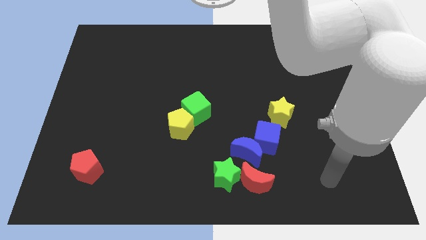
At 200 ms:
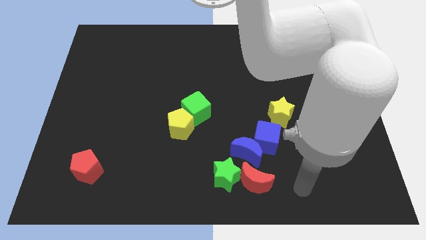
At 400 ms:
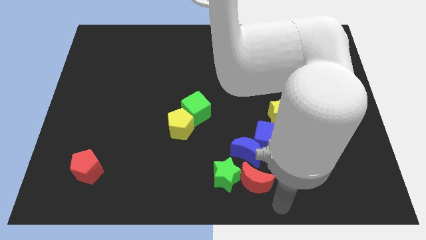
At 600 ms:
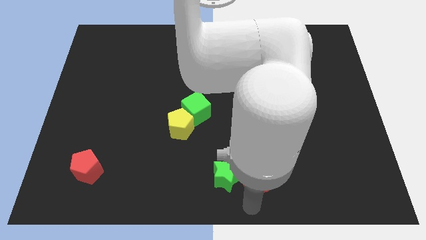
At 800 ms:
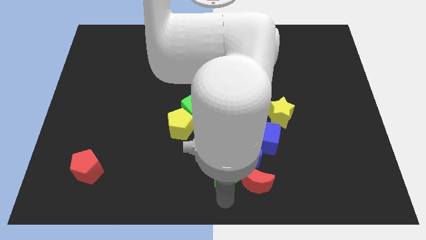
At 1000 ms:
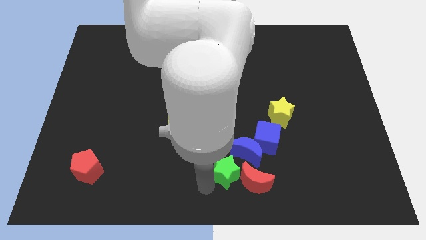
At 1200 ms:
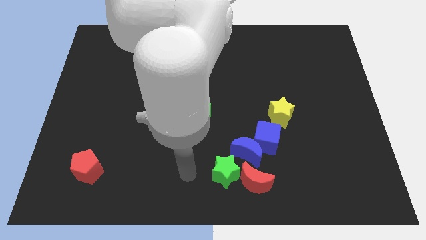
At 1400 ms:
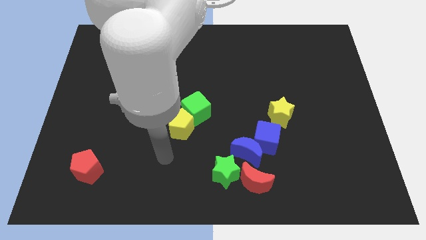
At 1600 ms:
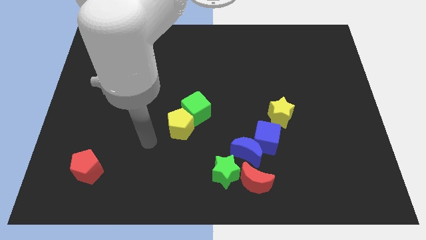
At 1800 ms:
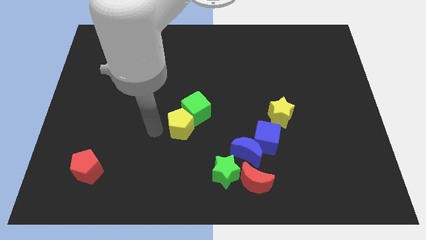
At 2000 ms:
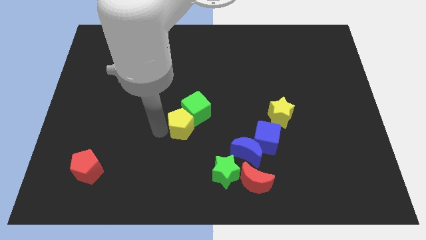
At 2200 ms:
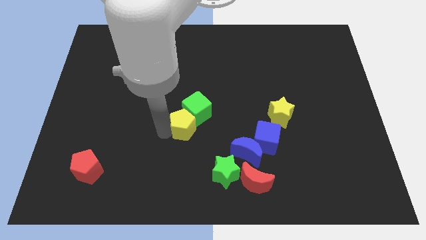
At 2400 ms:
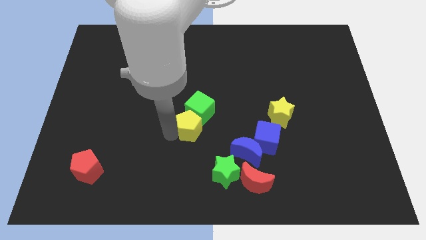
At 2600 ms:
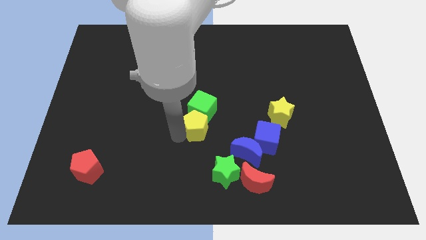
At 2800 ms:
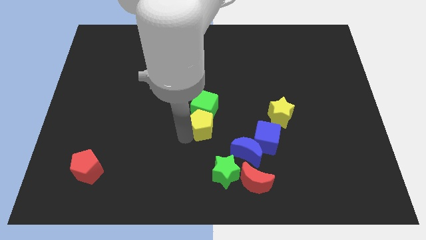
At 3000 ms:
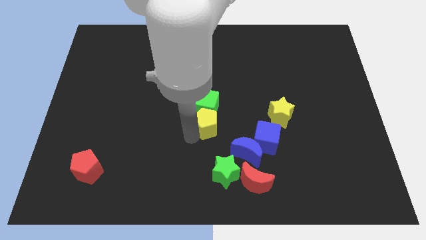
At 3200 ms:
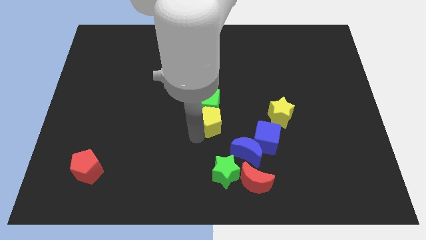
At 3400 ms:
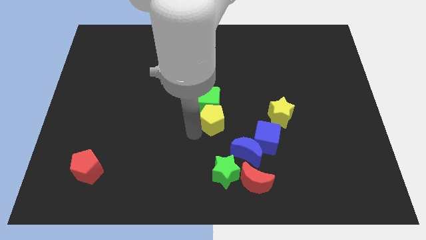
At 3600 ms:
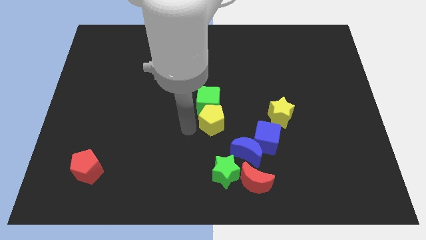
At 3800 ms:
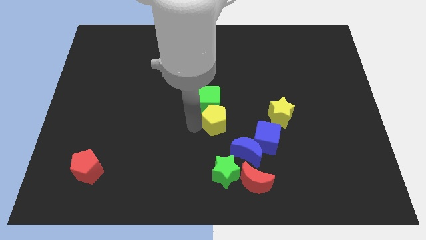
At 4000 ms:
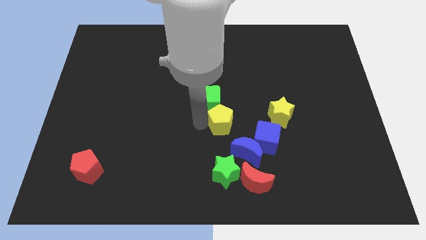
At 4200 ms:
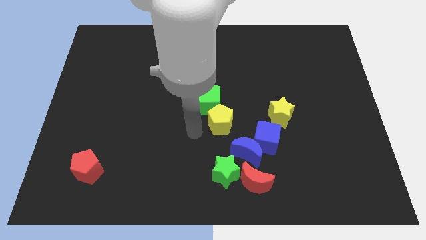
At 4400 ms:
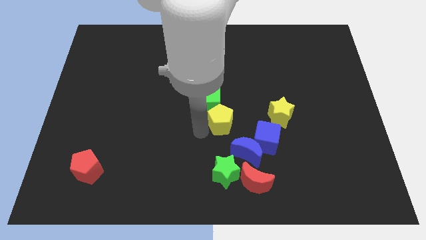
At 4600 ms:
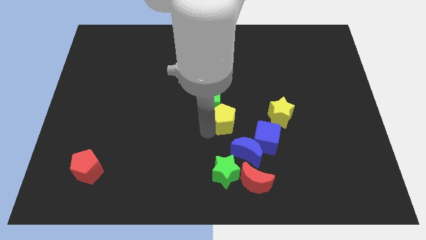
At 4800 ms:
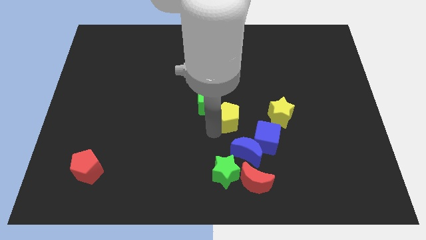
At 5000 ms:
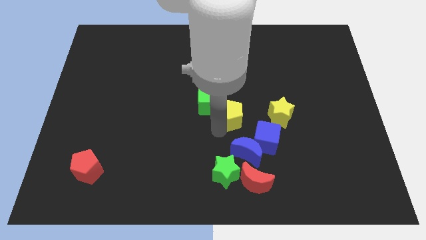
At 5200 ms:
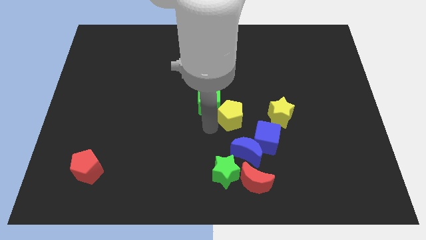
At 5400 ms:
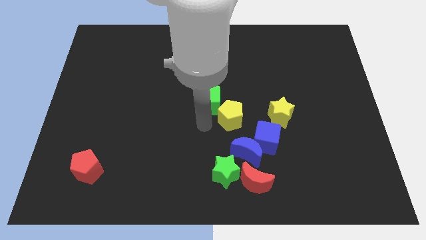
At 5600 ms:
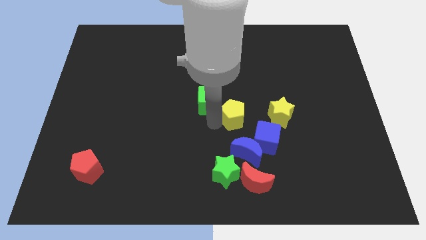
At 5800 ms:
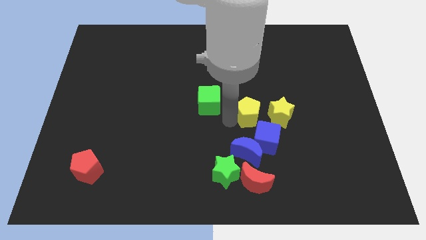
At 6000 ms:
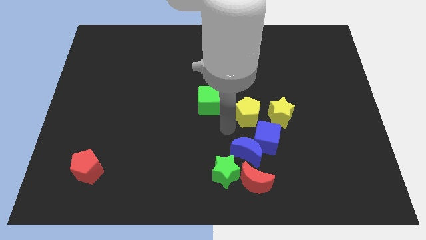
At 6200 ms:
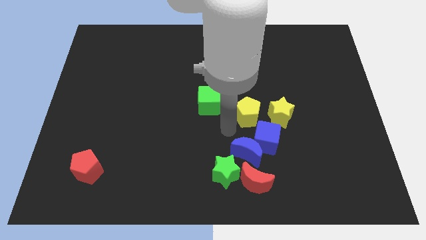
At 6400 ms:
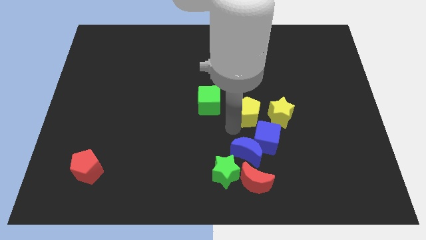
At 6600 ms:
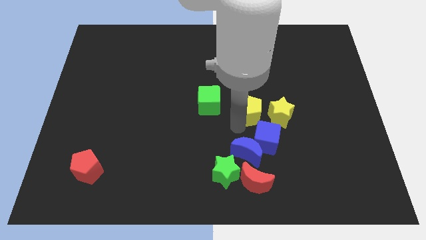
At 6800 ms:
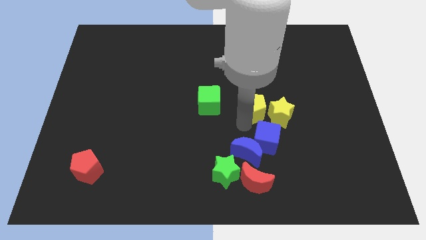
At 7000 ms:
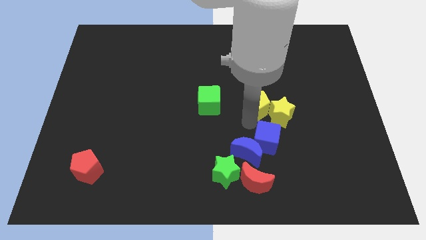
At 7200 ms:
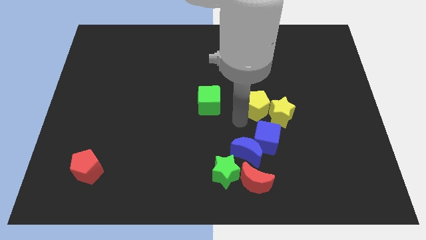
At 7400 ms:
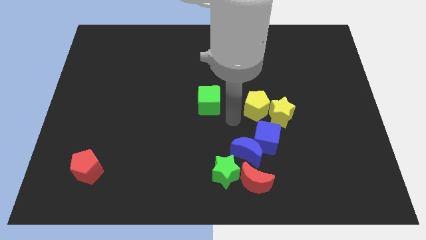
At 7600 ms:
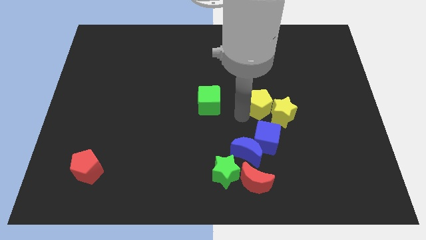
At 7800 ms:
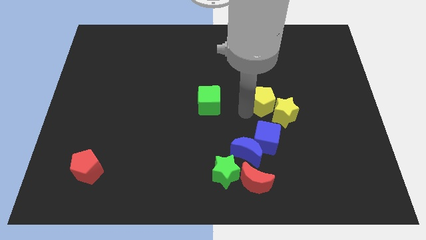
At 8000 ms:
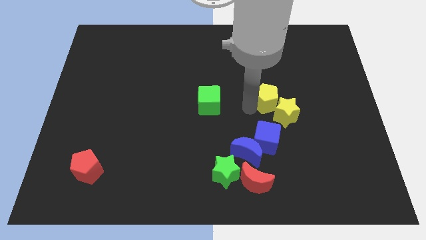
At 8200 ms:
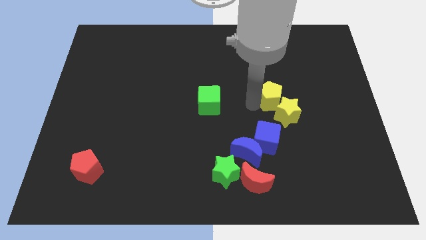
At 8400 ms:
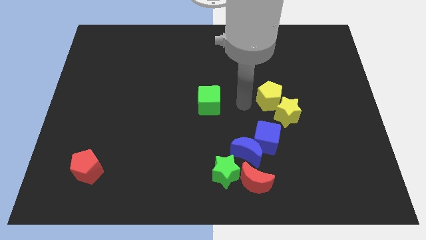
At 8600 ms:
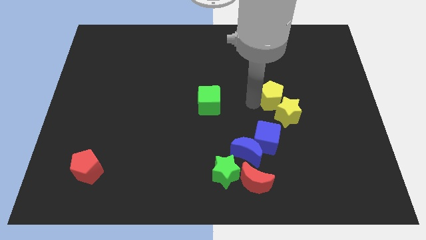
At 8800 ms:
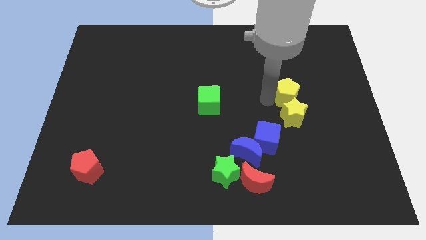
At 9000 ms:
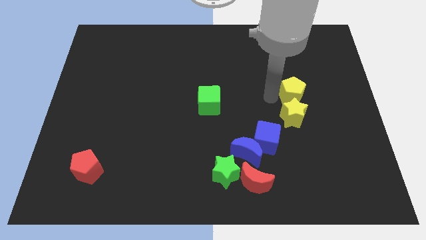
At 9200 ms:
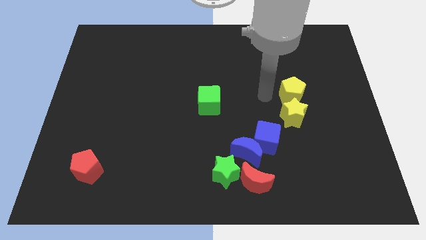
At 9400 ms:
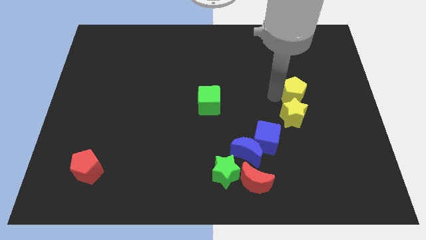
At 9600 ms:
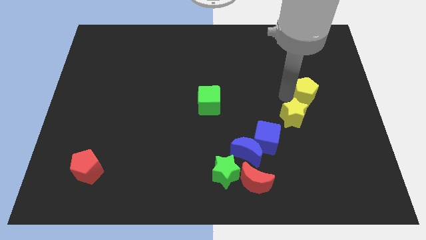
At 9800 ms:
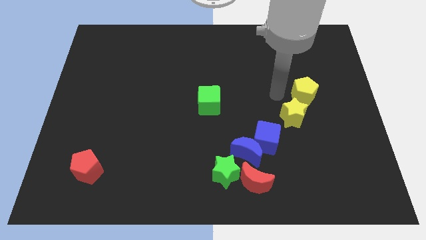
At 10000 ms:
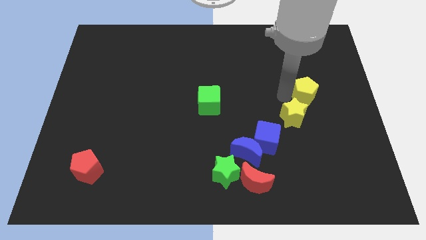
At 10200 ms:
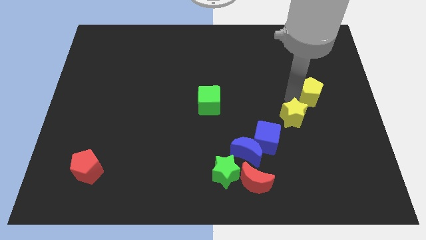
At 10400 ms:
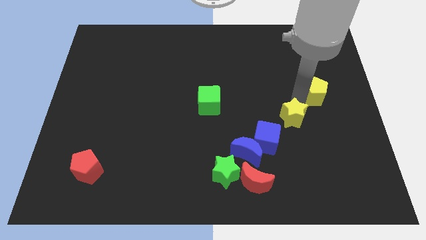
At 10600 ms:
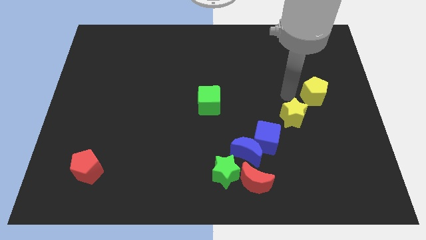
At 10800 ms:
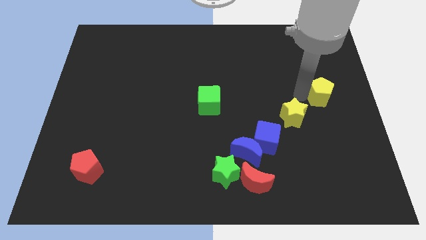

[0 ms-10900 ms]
move the yellow pentagon to the right side of the board

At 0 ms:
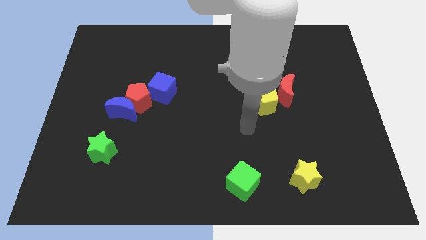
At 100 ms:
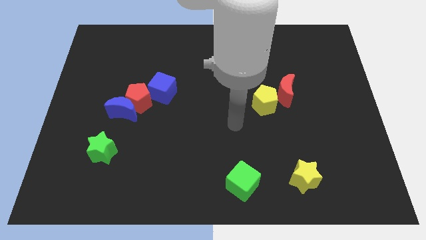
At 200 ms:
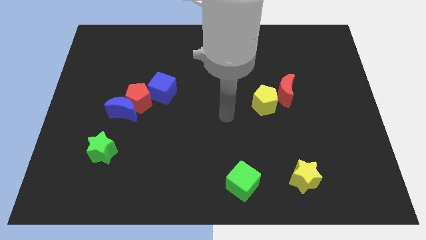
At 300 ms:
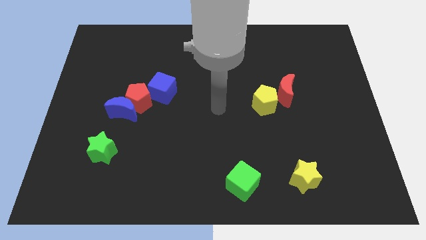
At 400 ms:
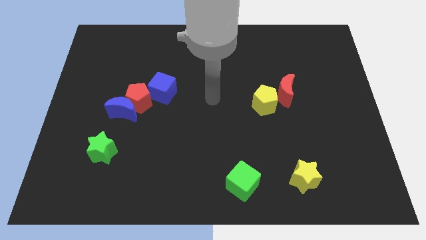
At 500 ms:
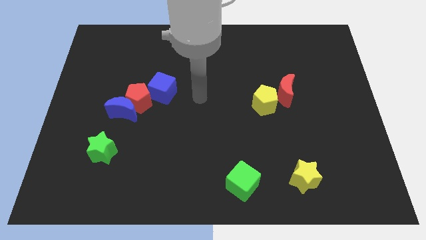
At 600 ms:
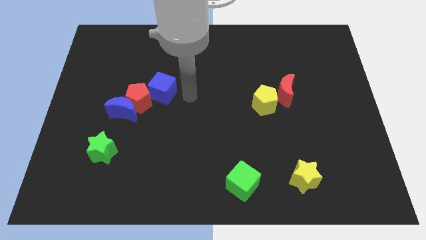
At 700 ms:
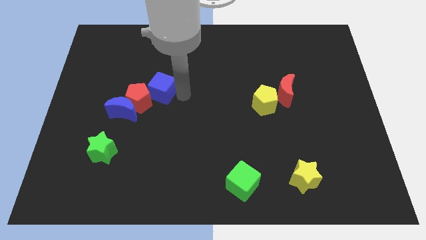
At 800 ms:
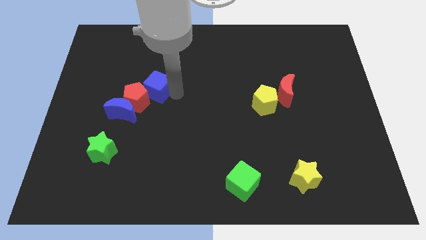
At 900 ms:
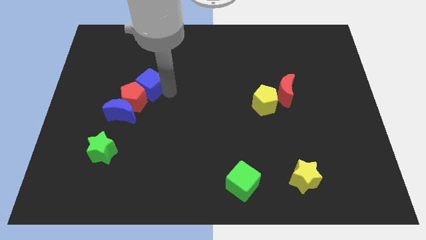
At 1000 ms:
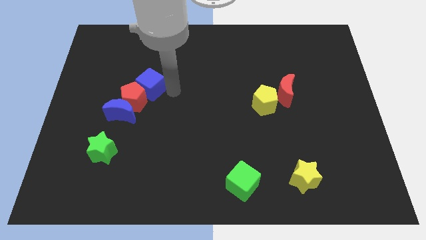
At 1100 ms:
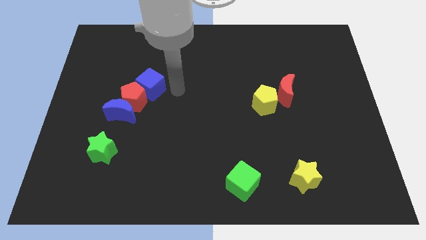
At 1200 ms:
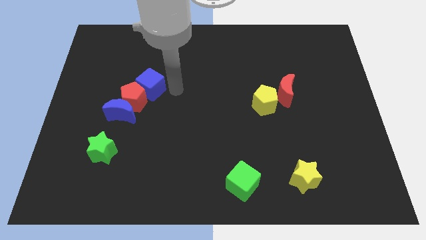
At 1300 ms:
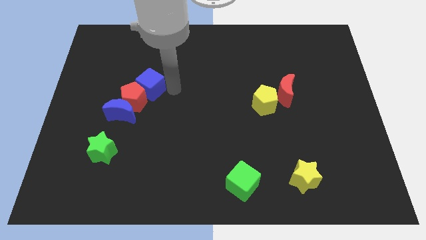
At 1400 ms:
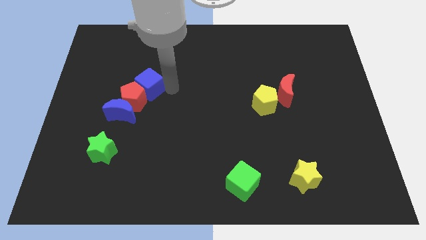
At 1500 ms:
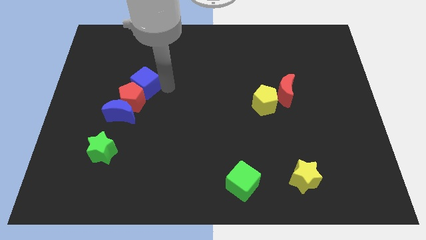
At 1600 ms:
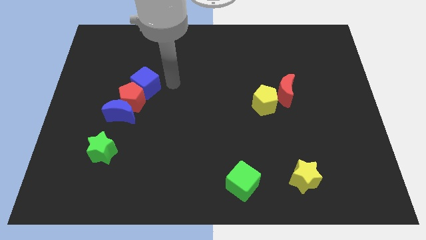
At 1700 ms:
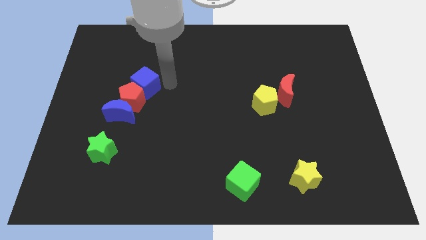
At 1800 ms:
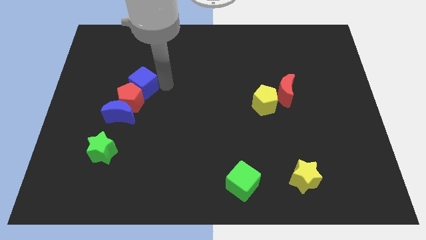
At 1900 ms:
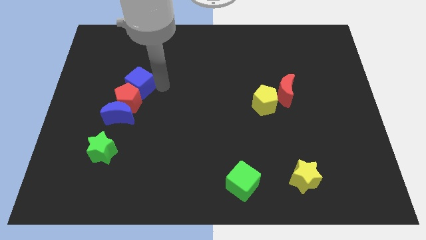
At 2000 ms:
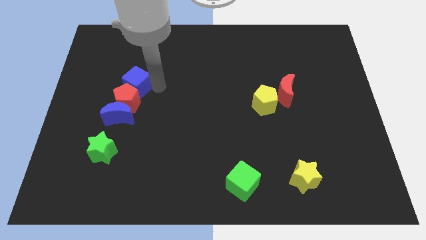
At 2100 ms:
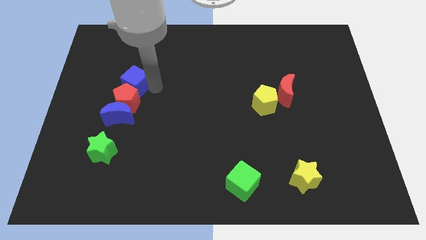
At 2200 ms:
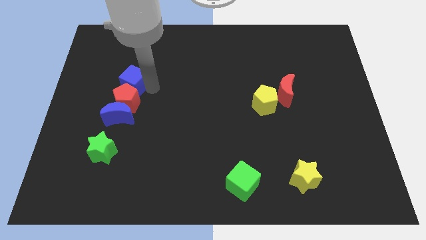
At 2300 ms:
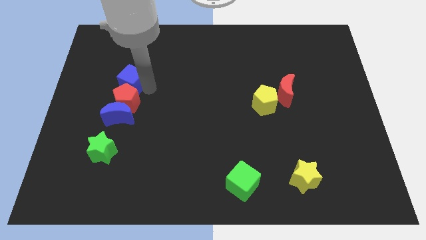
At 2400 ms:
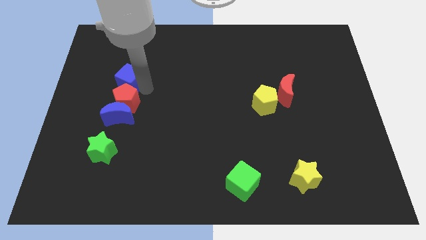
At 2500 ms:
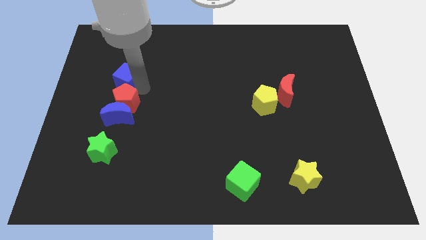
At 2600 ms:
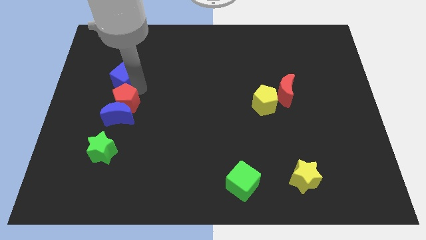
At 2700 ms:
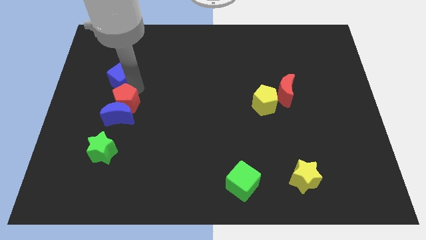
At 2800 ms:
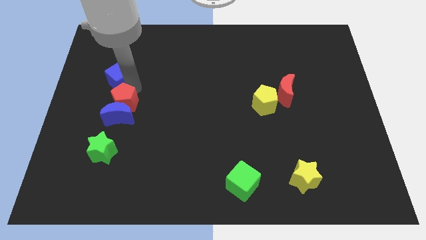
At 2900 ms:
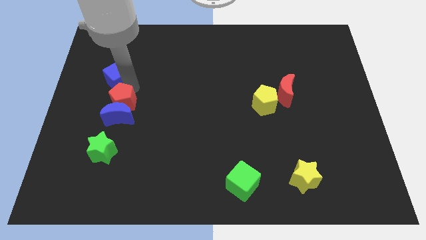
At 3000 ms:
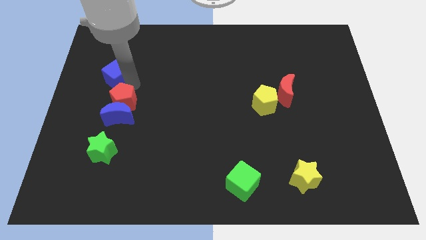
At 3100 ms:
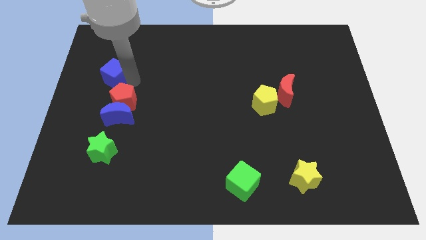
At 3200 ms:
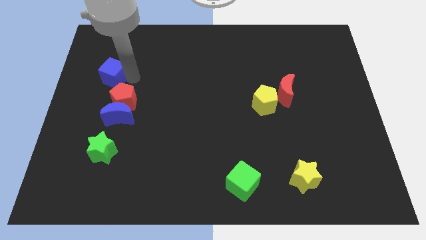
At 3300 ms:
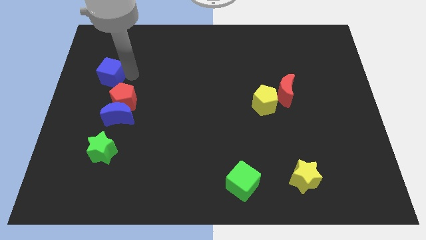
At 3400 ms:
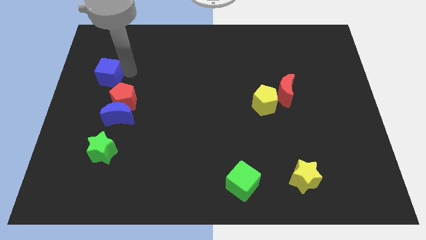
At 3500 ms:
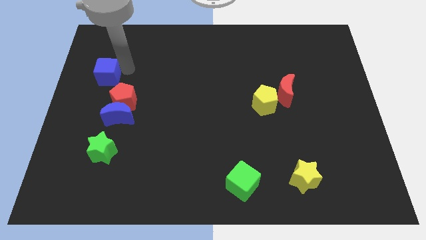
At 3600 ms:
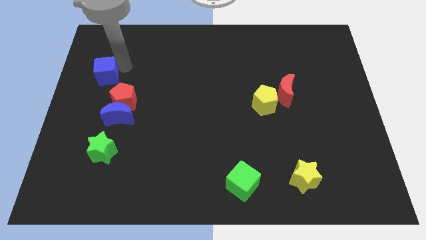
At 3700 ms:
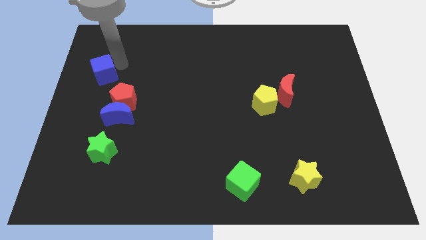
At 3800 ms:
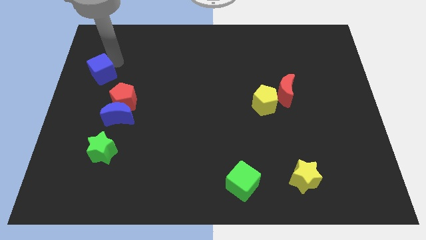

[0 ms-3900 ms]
put the blue cube to the left side of the board
